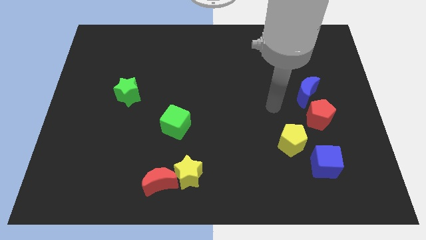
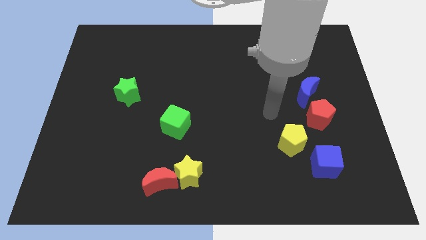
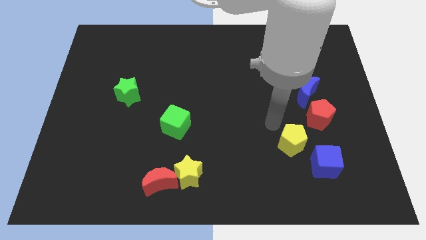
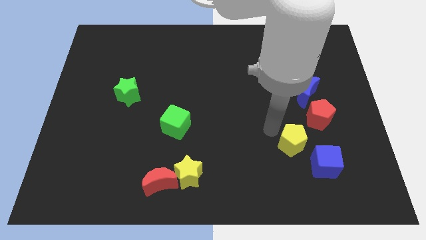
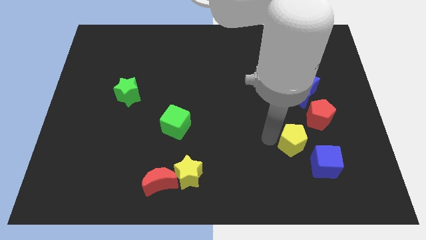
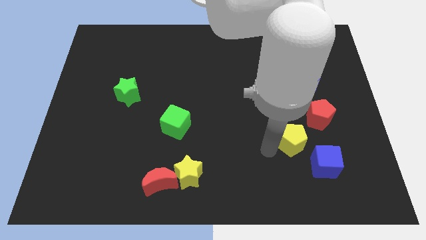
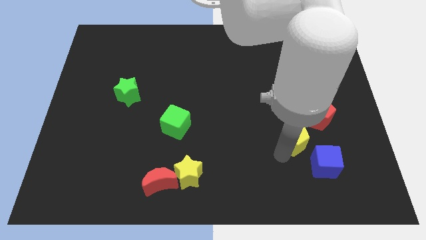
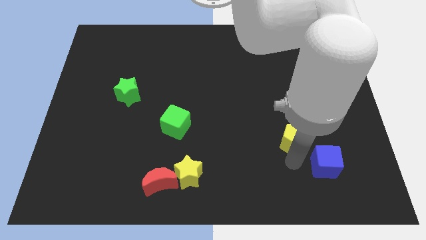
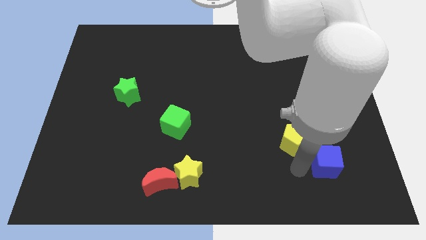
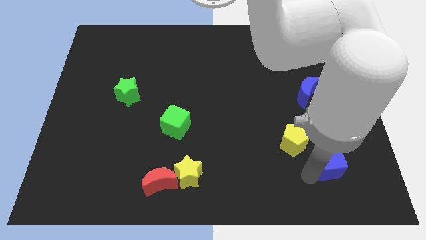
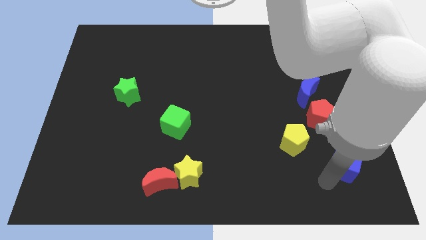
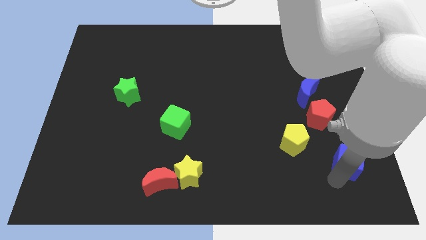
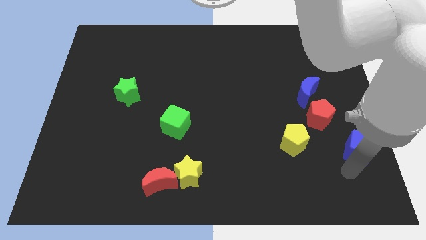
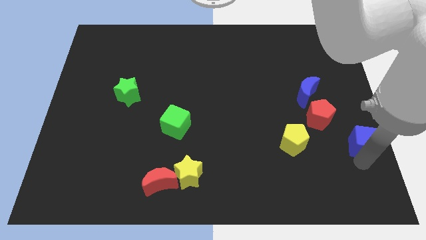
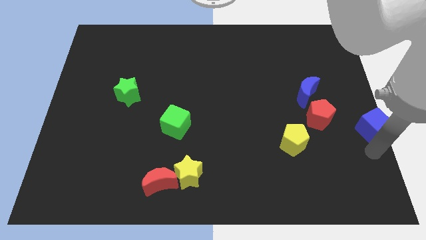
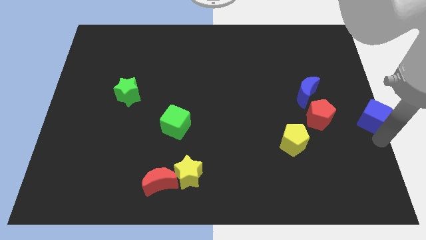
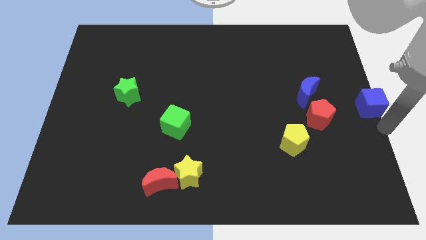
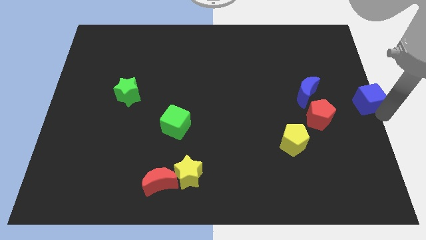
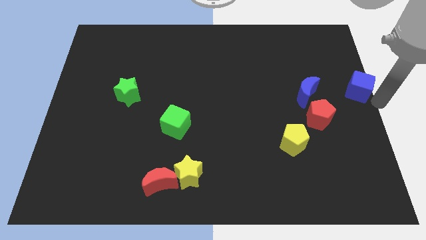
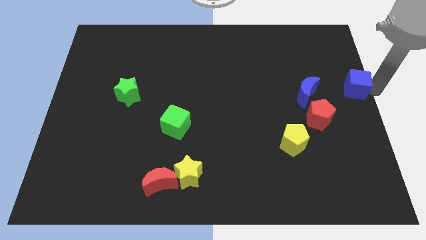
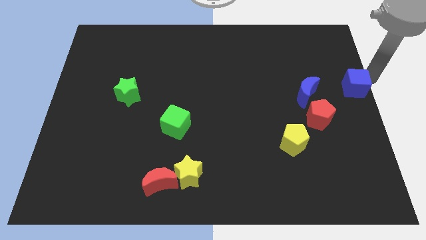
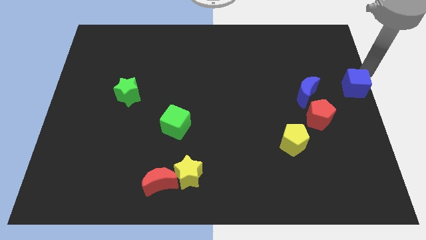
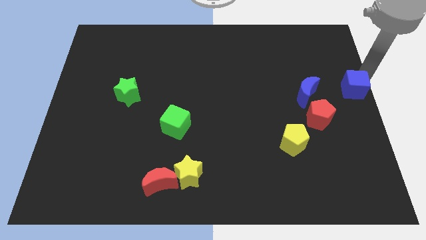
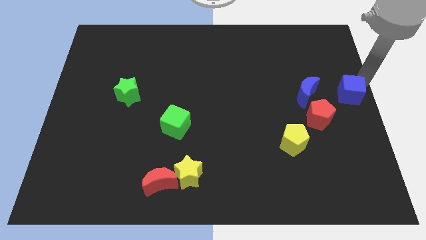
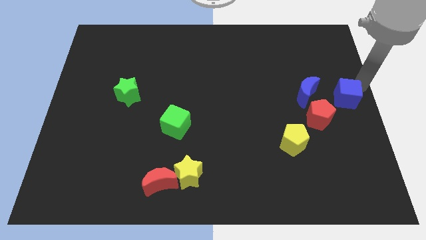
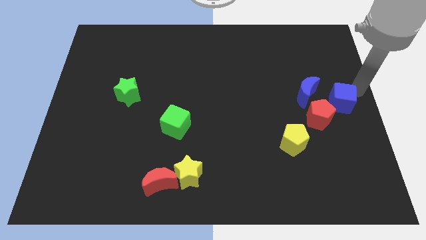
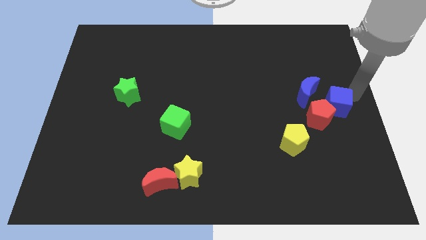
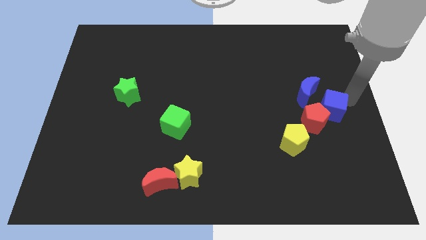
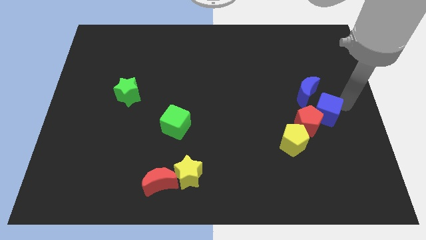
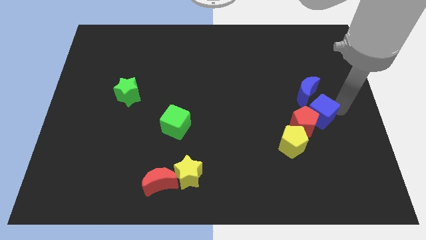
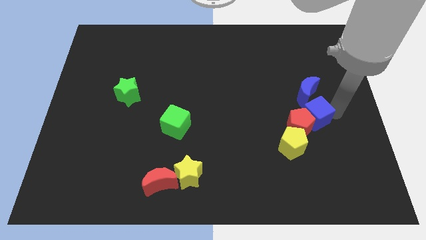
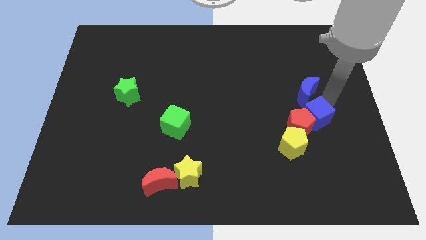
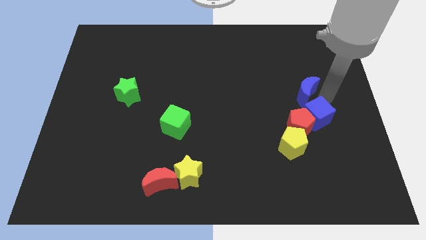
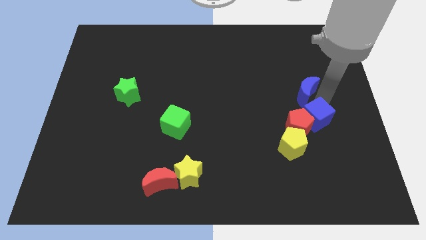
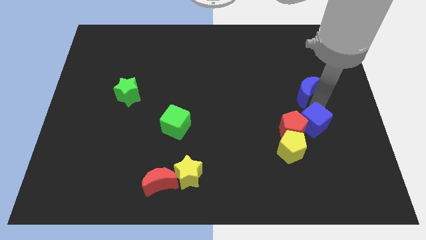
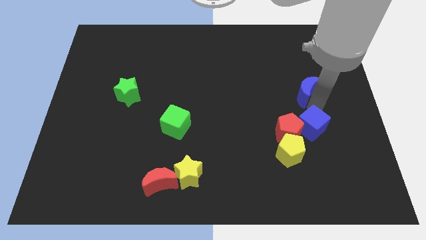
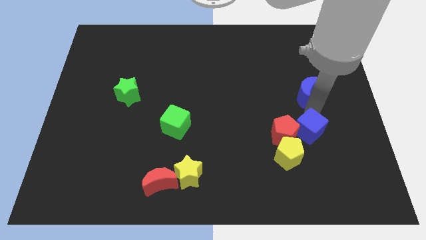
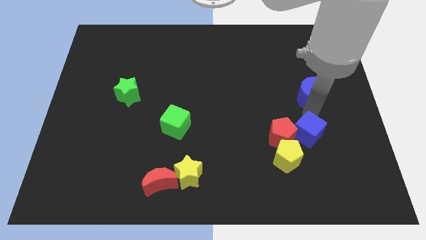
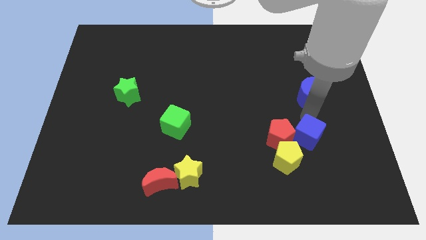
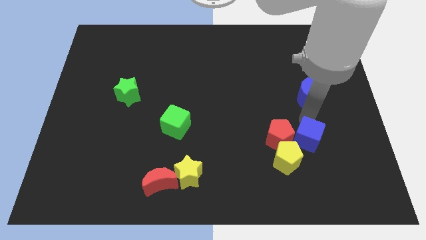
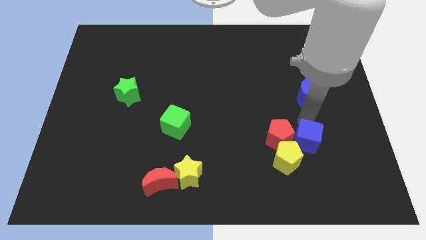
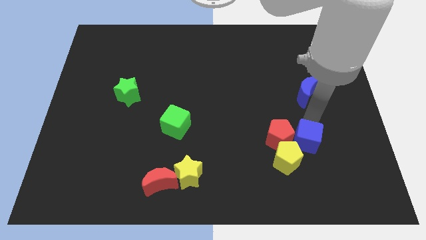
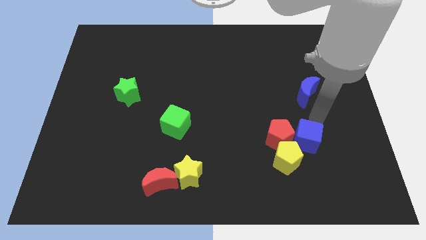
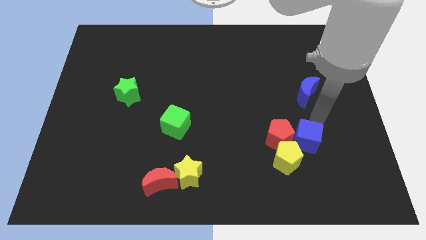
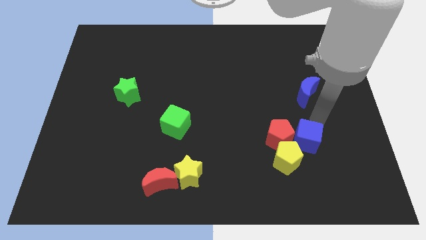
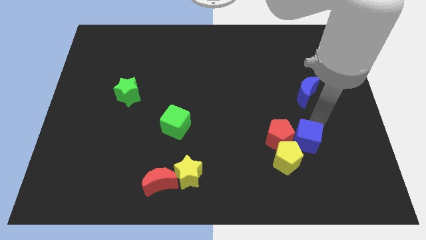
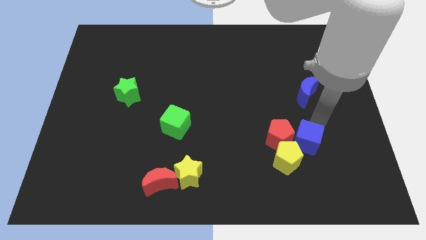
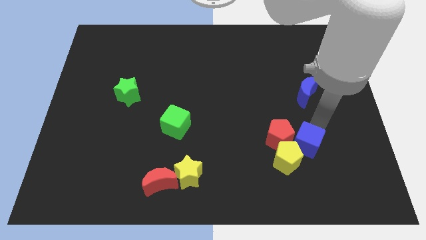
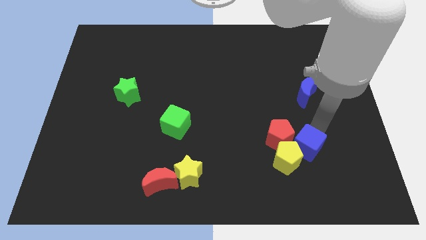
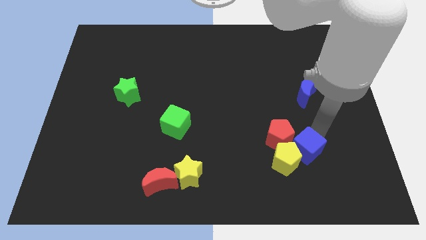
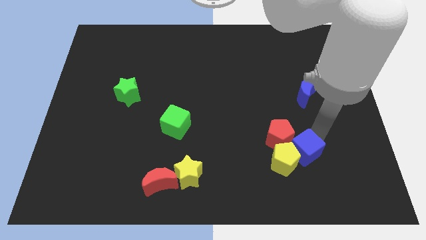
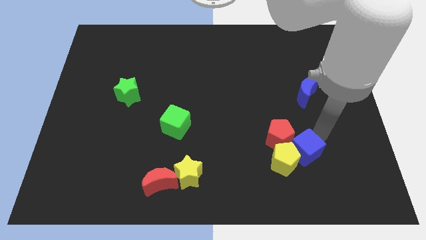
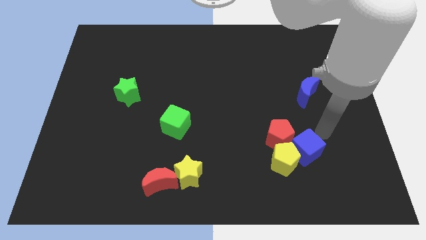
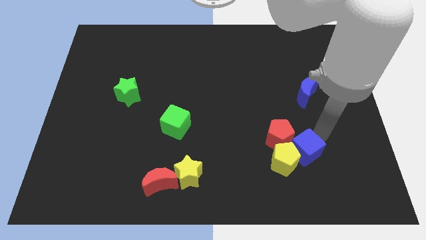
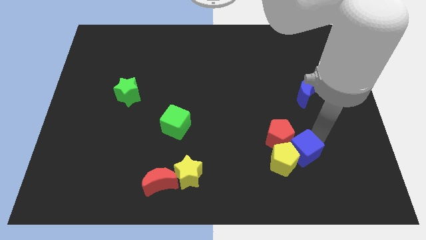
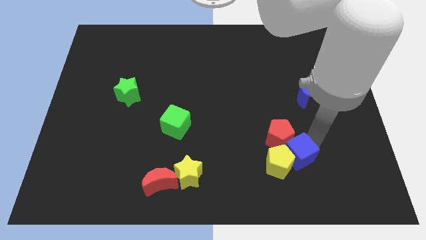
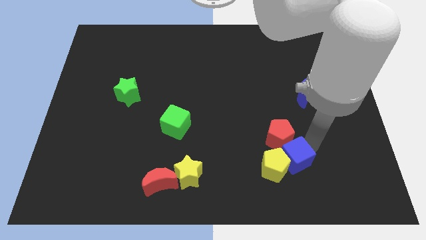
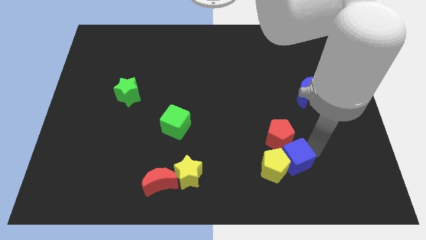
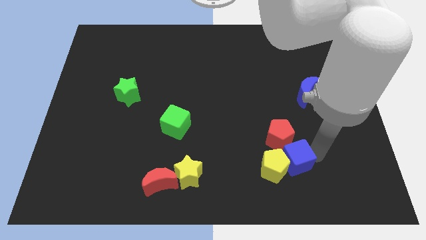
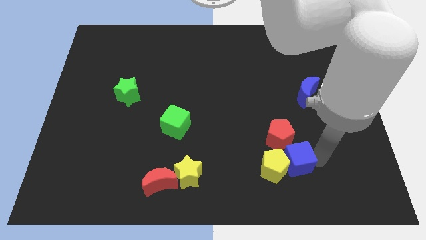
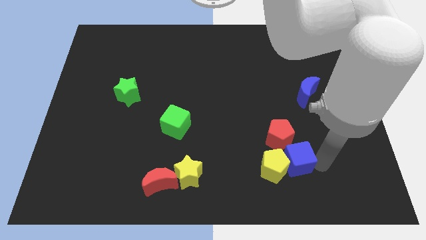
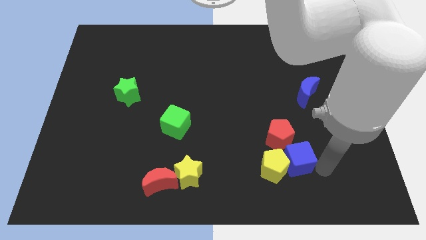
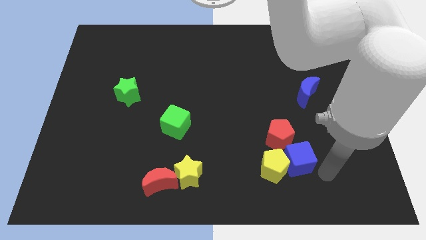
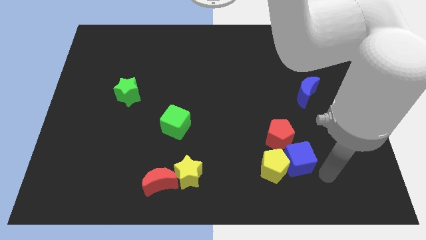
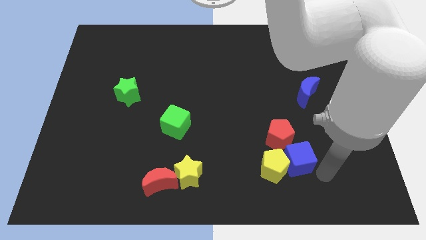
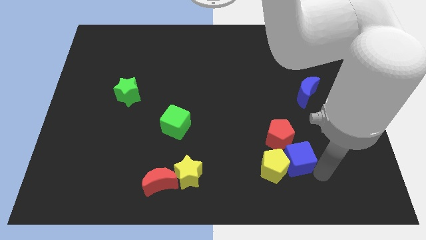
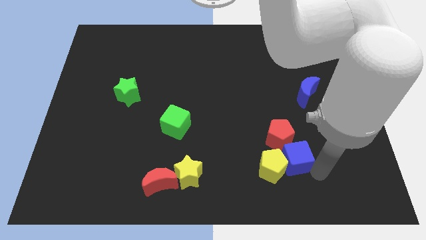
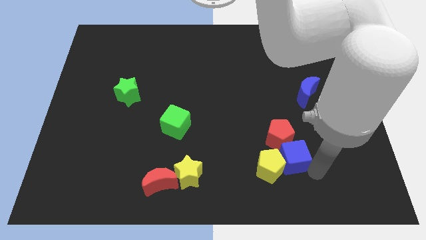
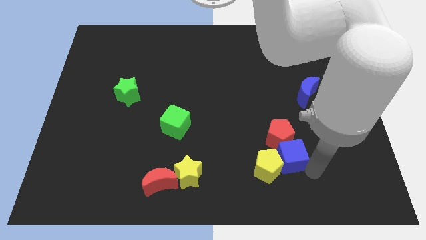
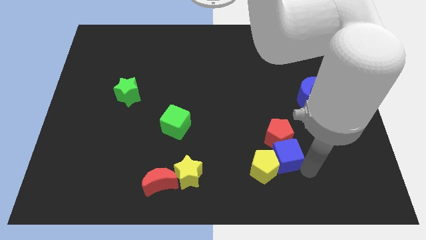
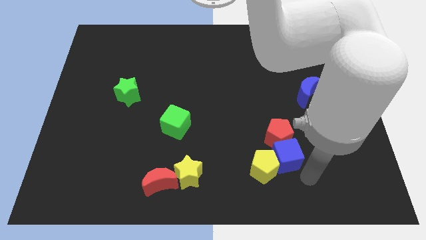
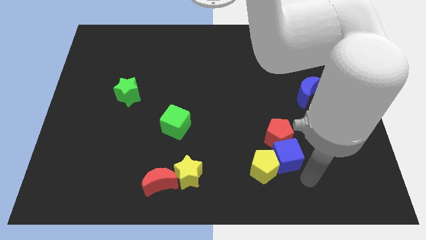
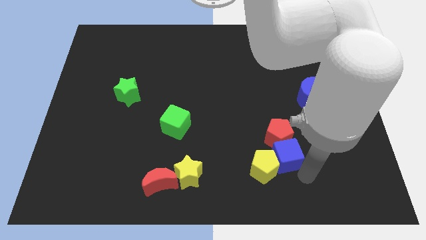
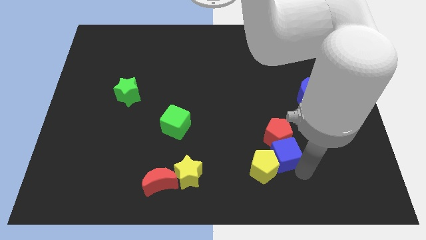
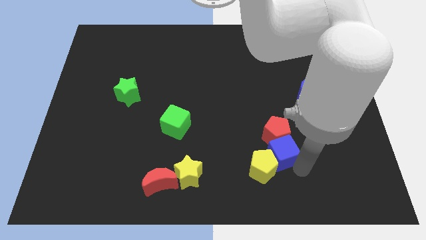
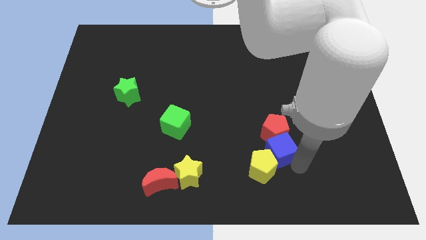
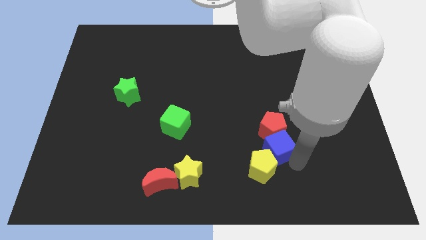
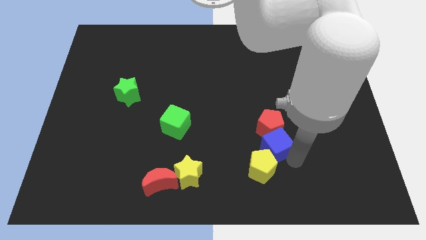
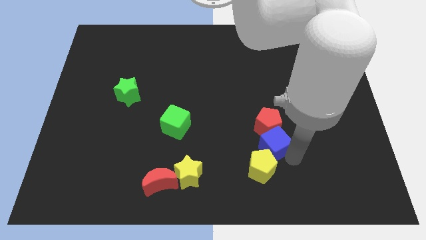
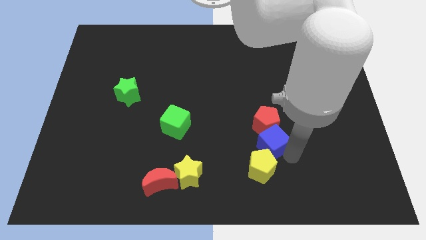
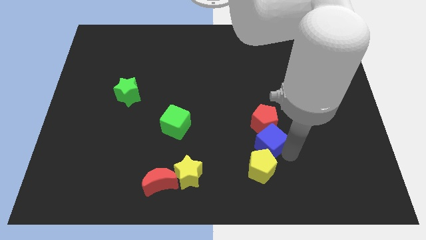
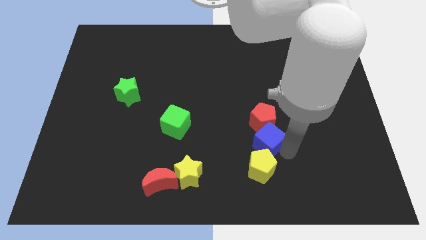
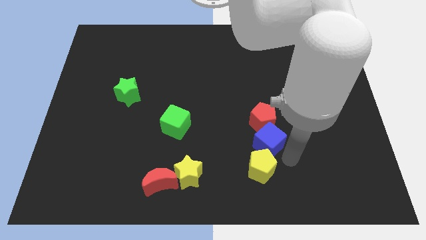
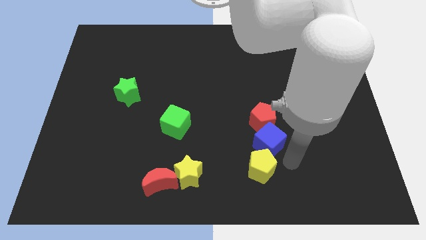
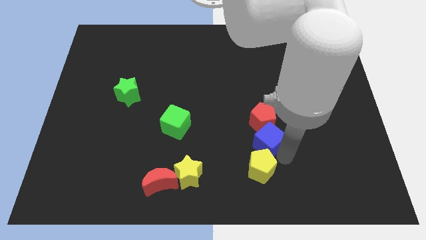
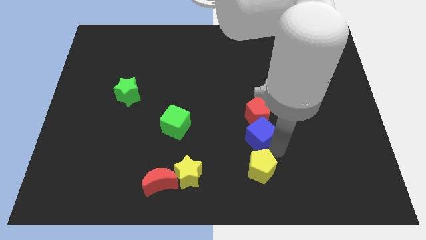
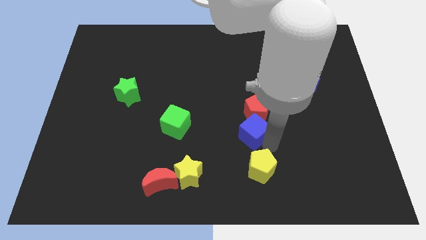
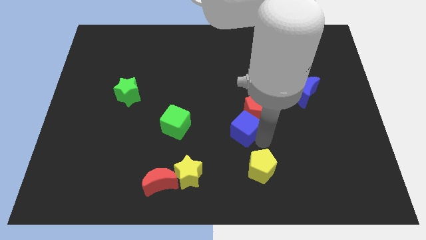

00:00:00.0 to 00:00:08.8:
slide the blue cube to the middle
